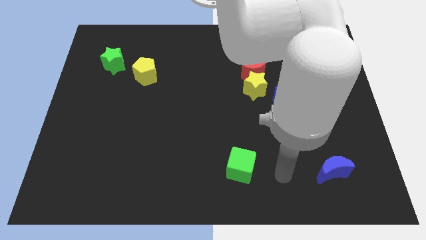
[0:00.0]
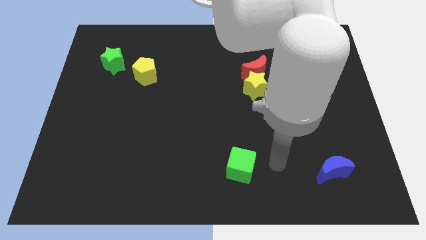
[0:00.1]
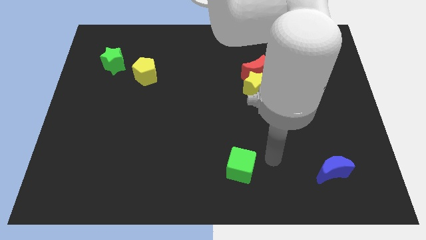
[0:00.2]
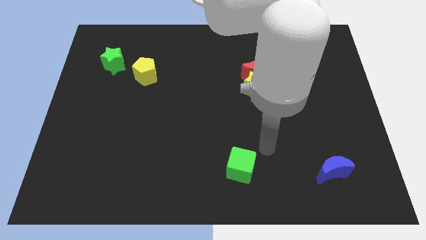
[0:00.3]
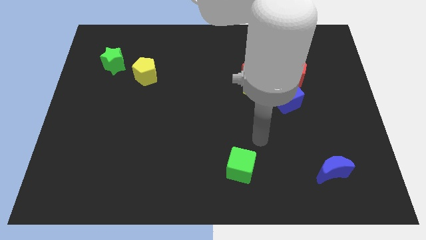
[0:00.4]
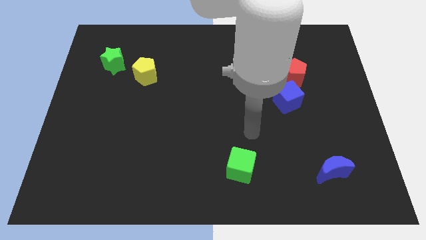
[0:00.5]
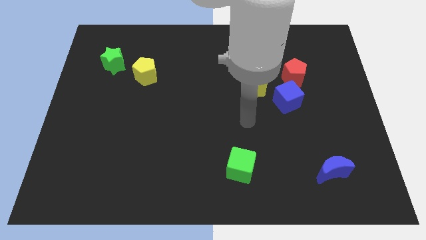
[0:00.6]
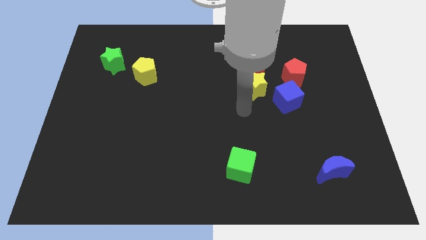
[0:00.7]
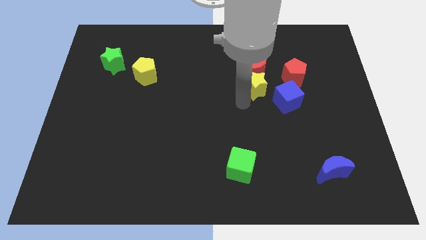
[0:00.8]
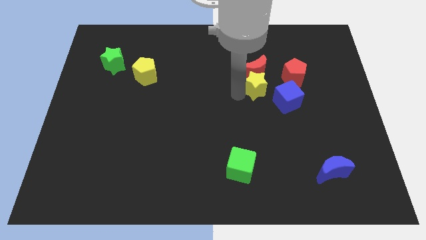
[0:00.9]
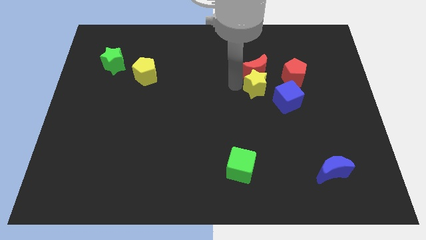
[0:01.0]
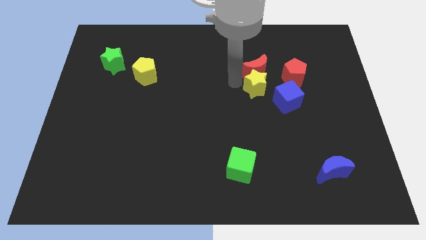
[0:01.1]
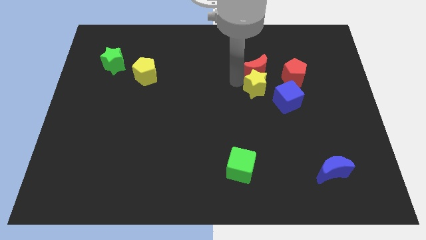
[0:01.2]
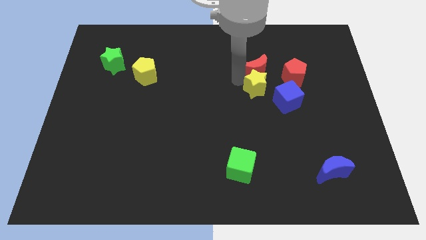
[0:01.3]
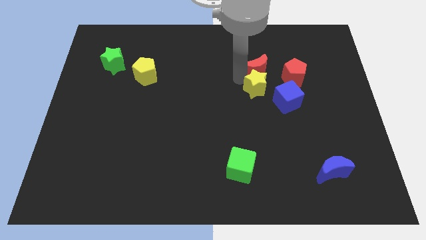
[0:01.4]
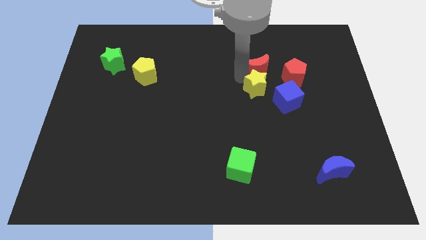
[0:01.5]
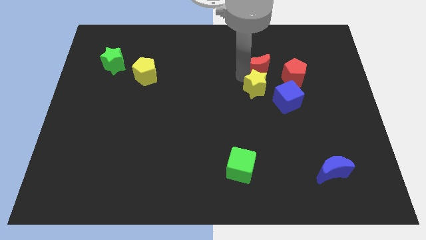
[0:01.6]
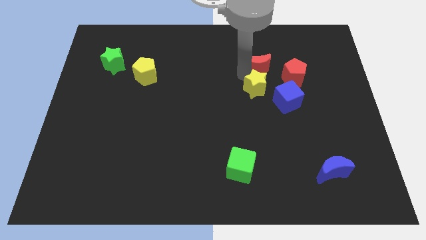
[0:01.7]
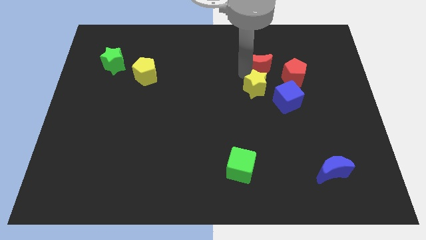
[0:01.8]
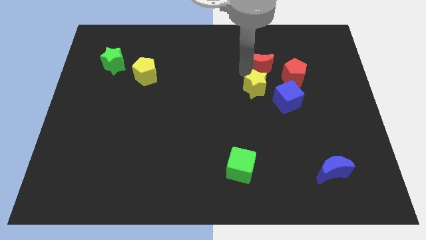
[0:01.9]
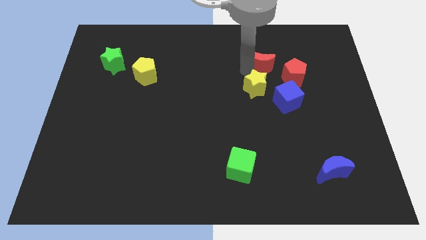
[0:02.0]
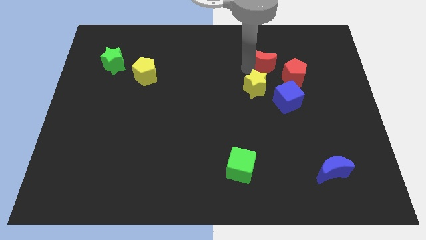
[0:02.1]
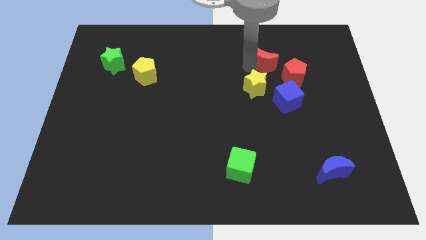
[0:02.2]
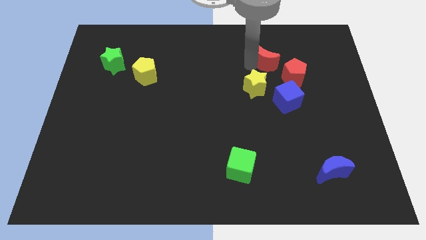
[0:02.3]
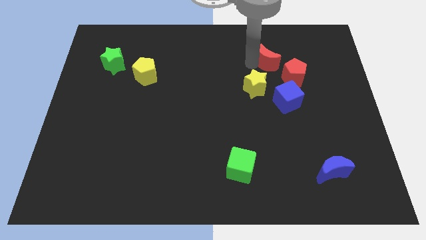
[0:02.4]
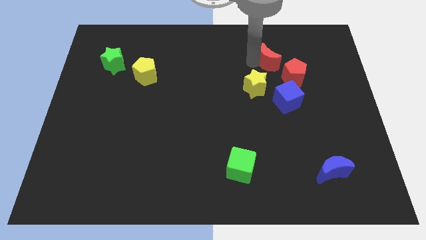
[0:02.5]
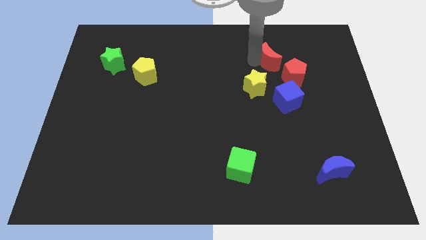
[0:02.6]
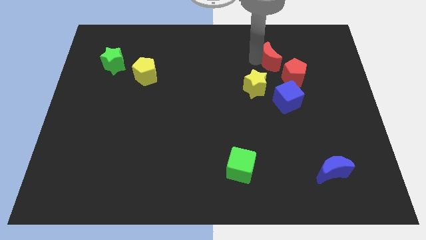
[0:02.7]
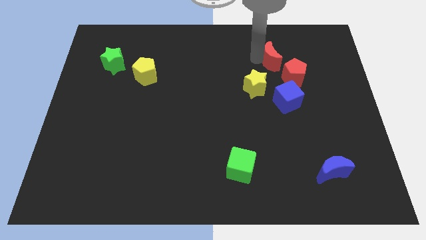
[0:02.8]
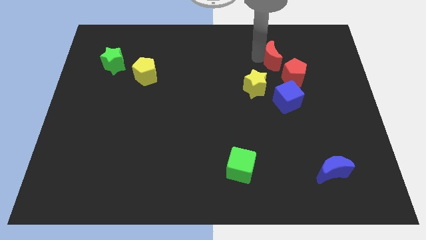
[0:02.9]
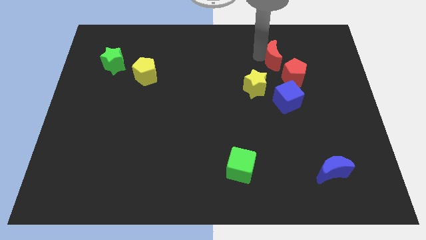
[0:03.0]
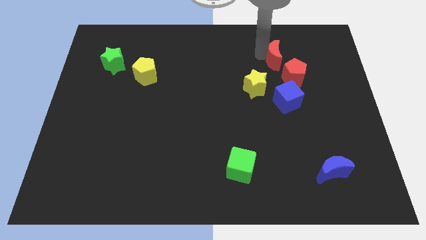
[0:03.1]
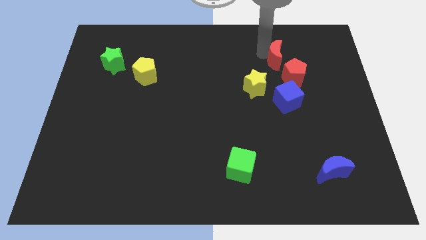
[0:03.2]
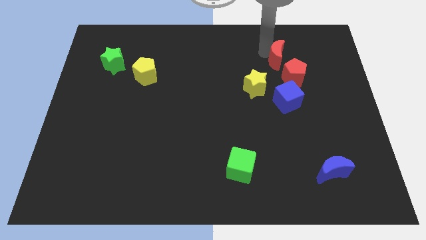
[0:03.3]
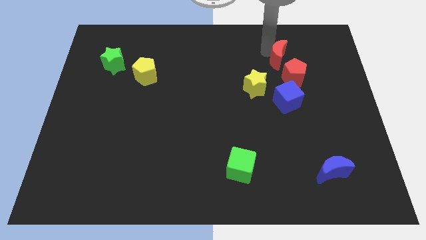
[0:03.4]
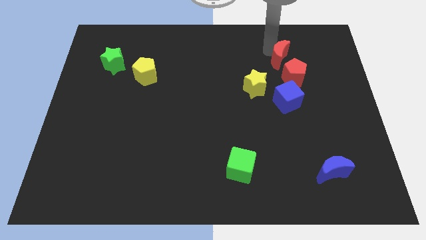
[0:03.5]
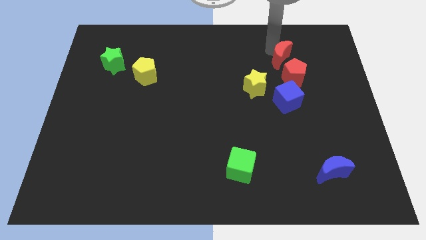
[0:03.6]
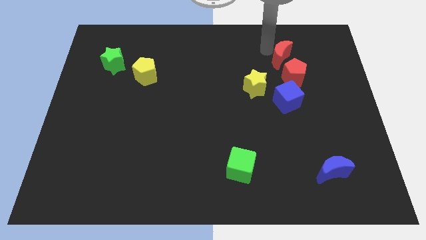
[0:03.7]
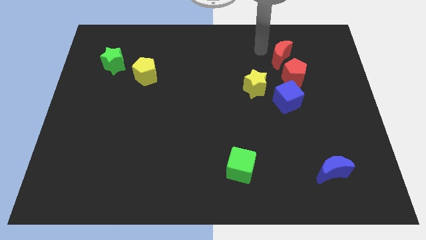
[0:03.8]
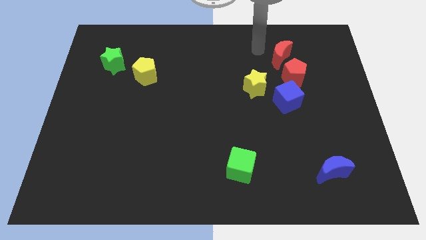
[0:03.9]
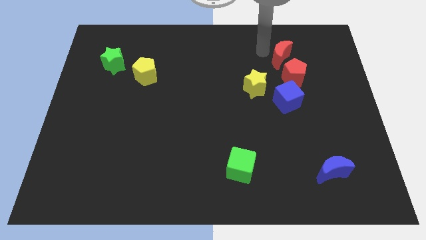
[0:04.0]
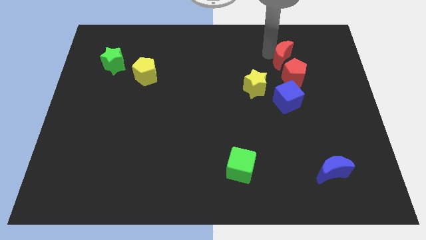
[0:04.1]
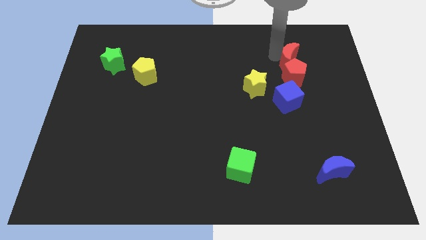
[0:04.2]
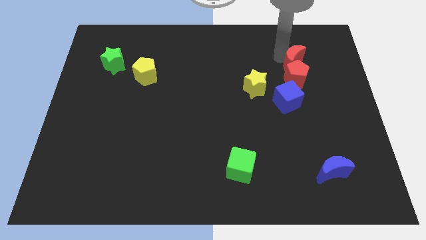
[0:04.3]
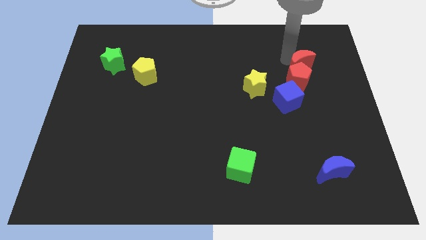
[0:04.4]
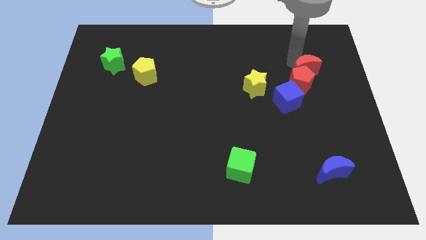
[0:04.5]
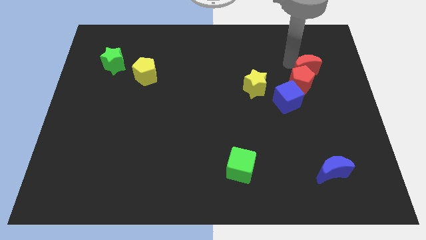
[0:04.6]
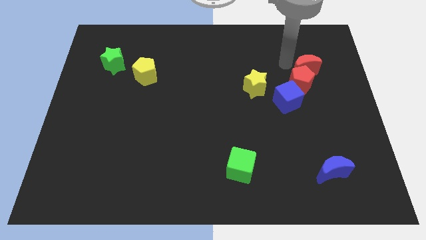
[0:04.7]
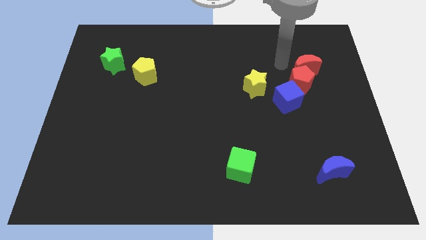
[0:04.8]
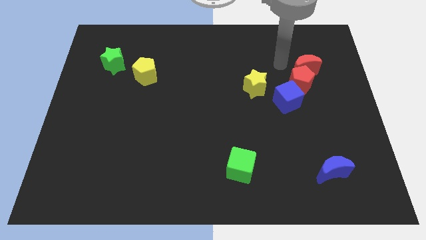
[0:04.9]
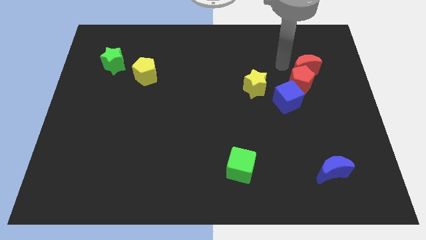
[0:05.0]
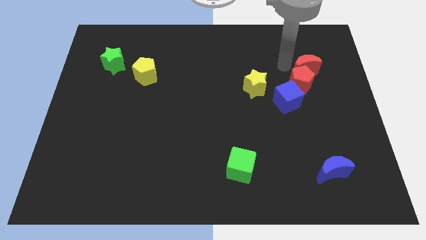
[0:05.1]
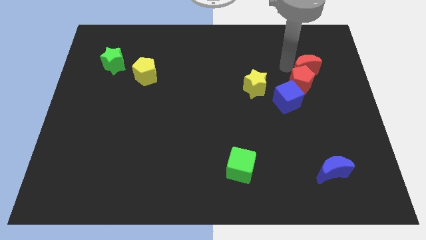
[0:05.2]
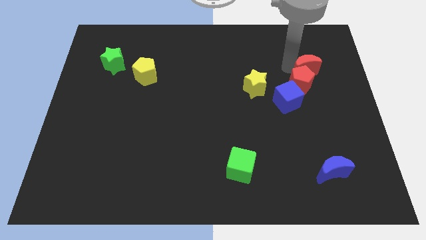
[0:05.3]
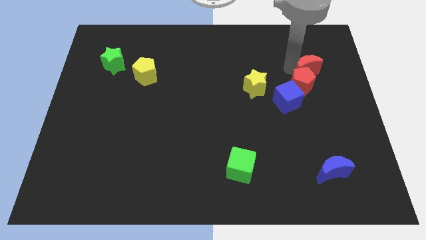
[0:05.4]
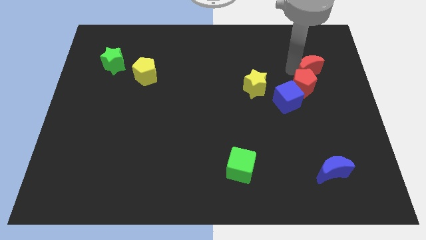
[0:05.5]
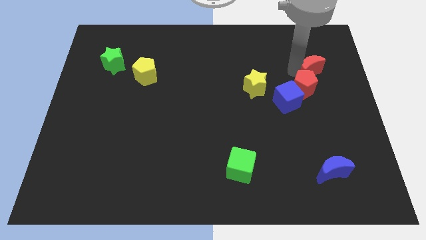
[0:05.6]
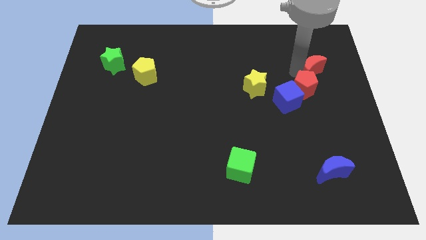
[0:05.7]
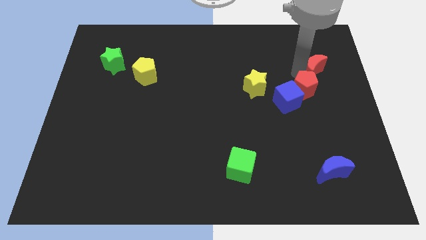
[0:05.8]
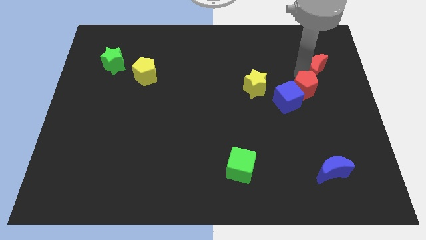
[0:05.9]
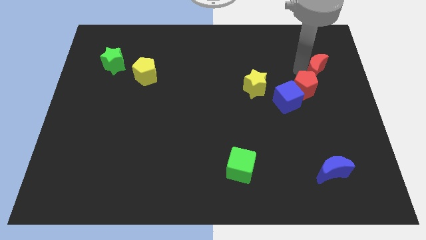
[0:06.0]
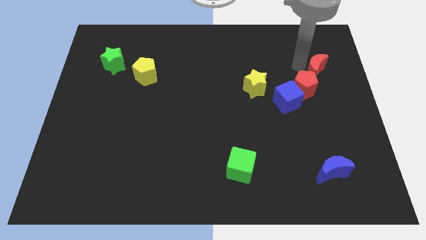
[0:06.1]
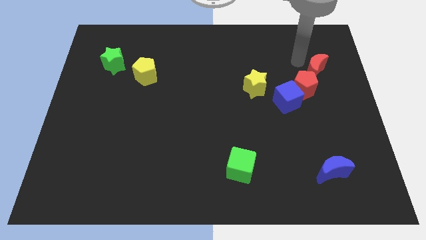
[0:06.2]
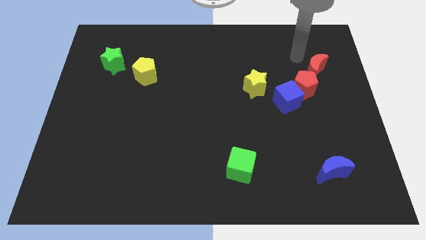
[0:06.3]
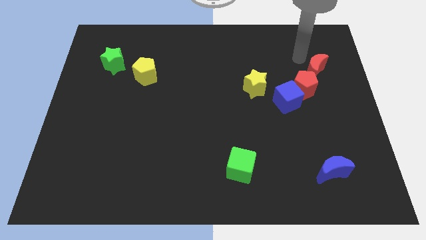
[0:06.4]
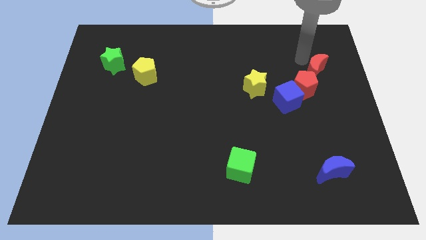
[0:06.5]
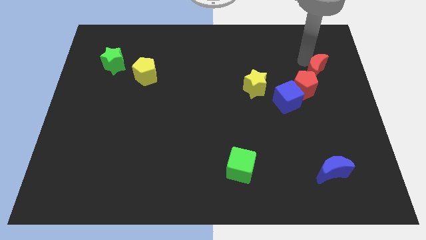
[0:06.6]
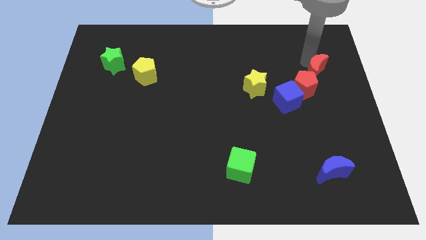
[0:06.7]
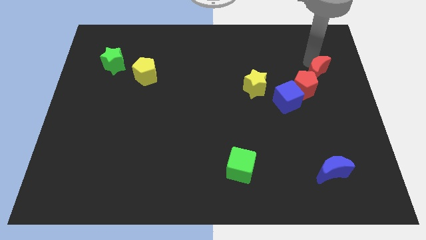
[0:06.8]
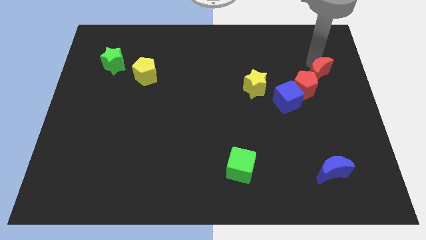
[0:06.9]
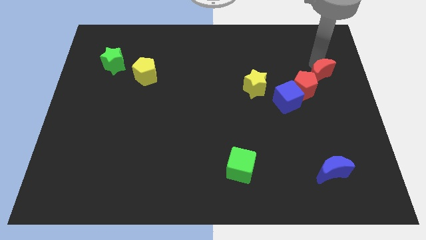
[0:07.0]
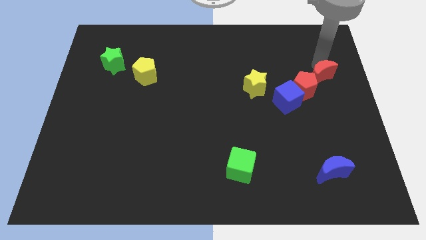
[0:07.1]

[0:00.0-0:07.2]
push the red moon to the right side of the board

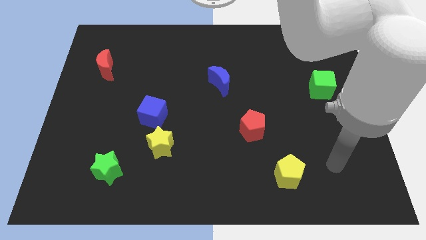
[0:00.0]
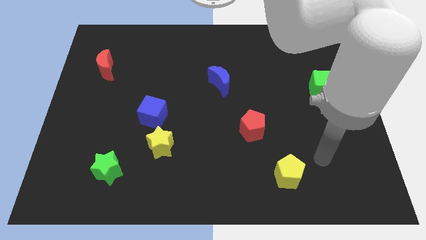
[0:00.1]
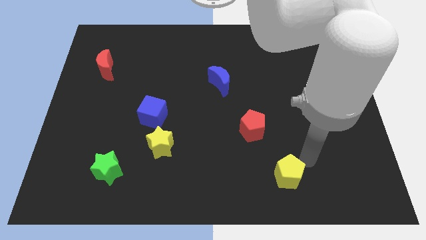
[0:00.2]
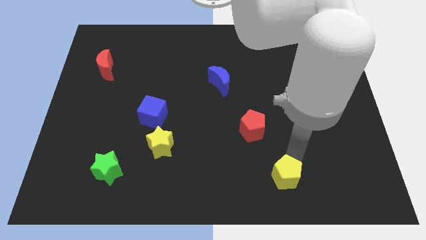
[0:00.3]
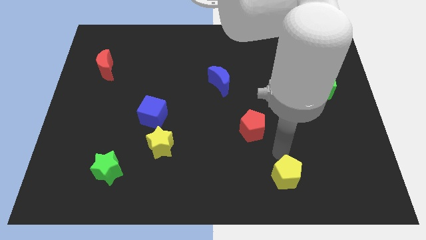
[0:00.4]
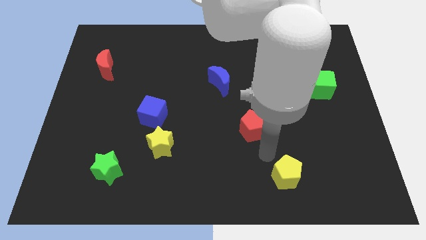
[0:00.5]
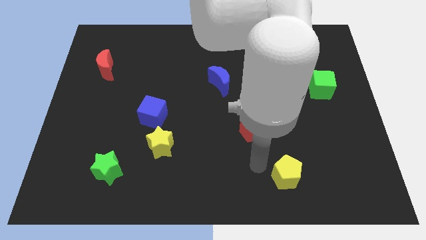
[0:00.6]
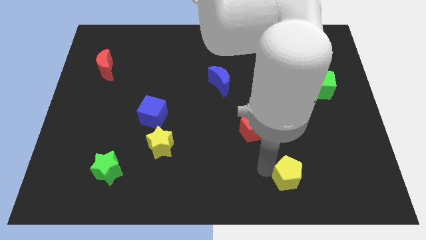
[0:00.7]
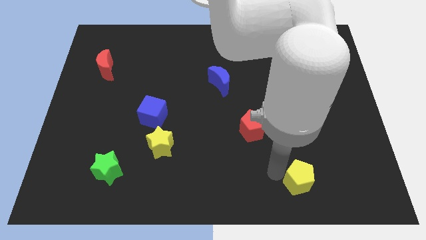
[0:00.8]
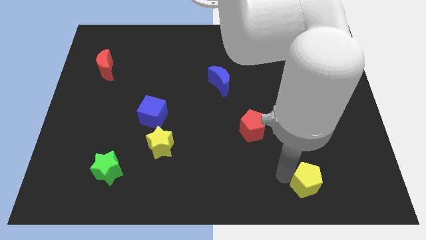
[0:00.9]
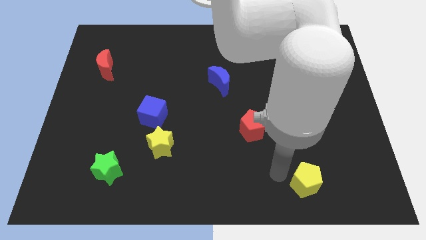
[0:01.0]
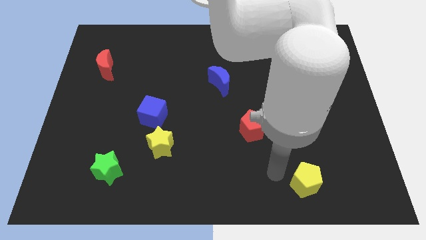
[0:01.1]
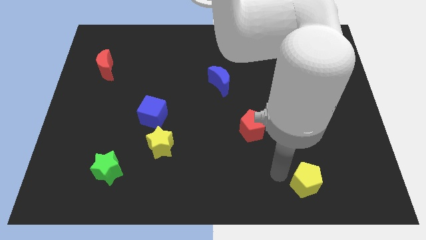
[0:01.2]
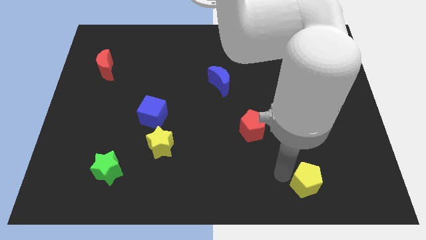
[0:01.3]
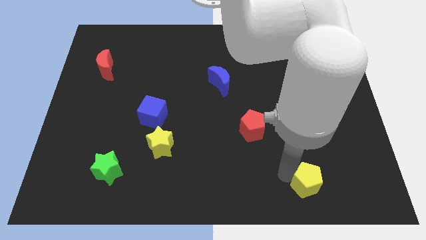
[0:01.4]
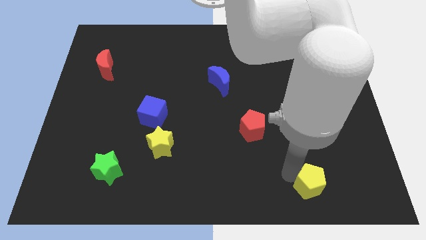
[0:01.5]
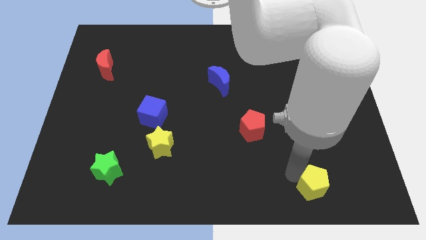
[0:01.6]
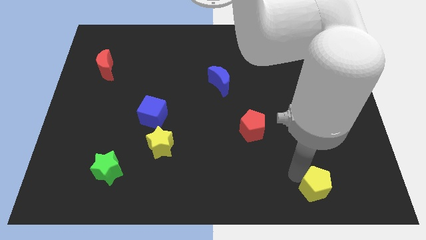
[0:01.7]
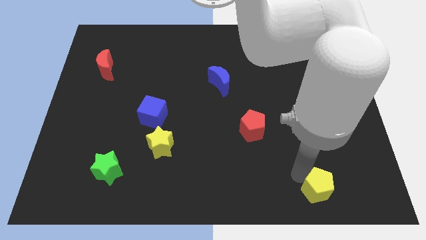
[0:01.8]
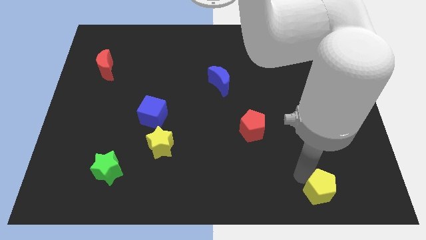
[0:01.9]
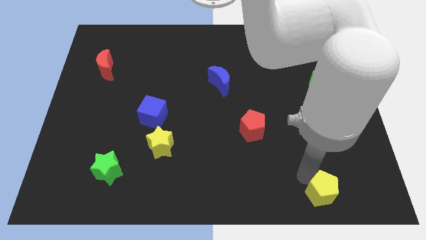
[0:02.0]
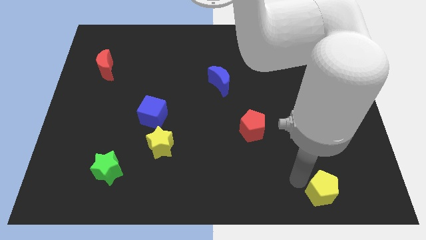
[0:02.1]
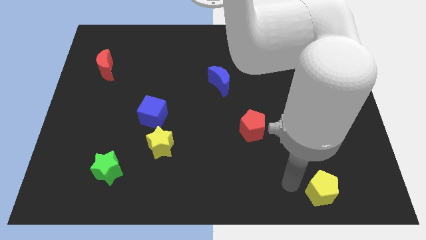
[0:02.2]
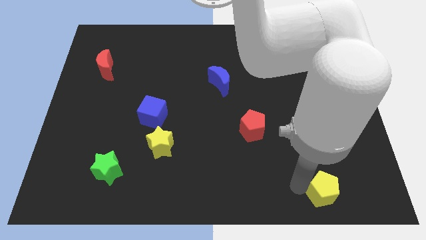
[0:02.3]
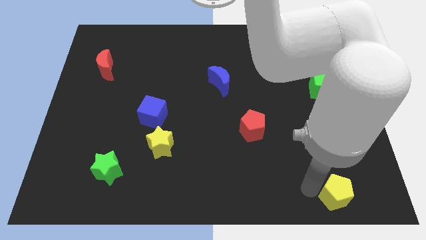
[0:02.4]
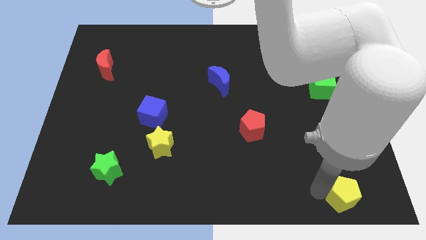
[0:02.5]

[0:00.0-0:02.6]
slide the yellow pentagon to the bottom right
